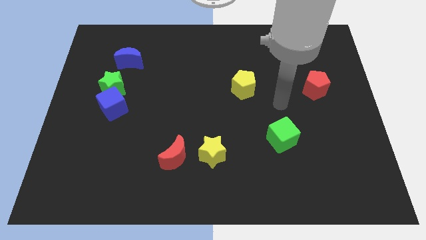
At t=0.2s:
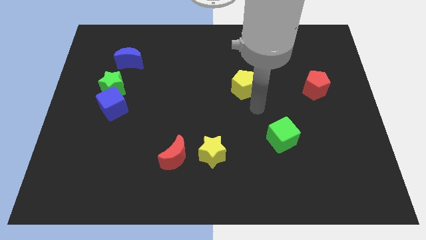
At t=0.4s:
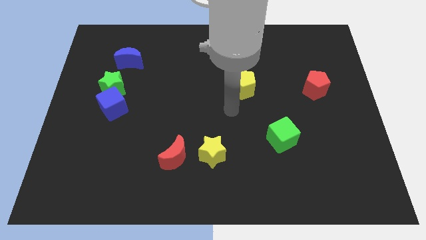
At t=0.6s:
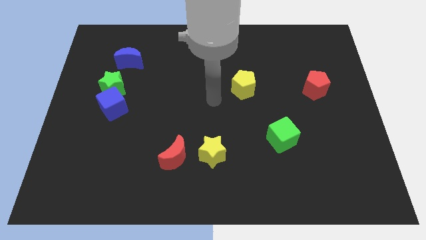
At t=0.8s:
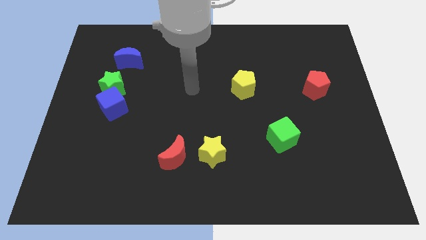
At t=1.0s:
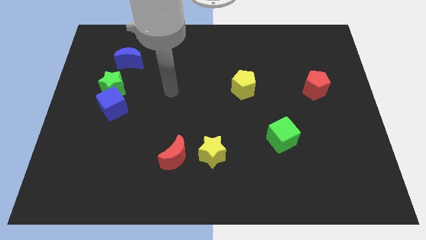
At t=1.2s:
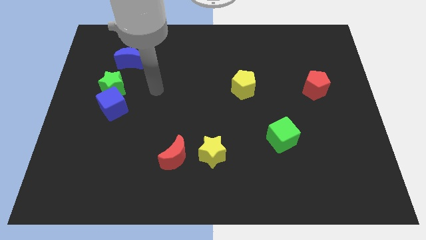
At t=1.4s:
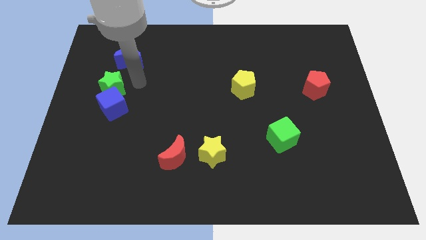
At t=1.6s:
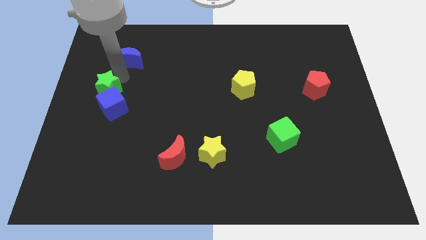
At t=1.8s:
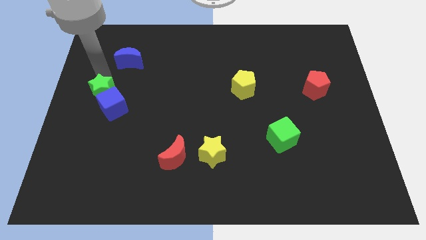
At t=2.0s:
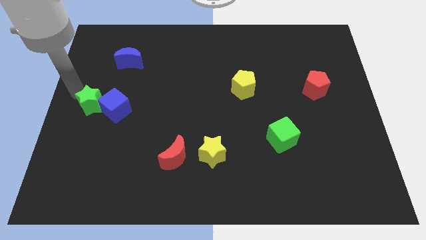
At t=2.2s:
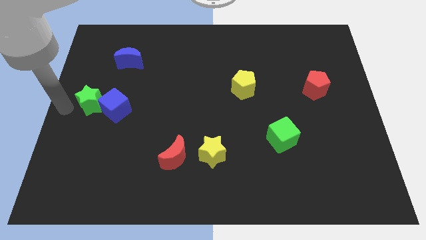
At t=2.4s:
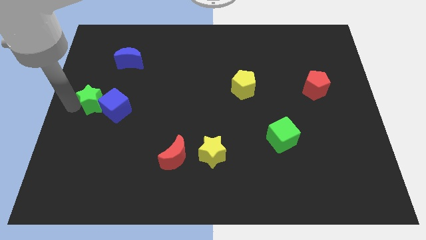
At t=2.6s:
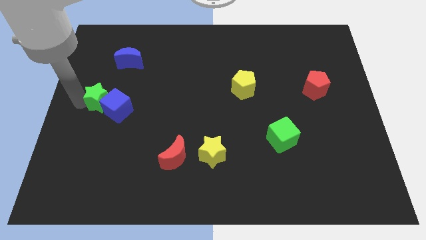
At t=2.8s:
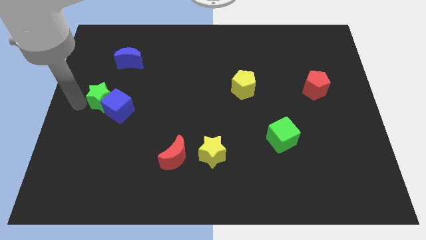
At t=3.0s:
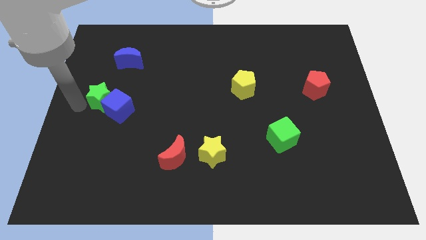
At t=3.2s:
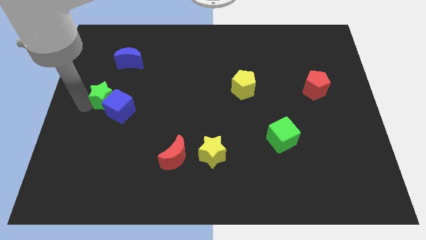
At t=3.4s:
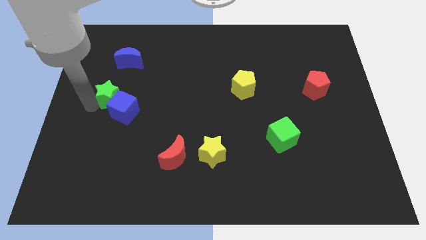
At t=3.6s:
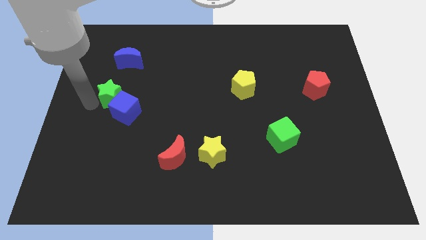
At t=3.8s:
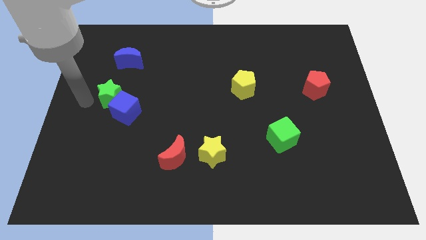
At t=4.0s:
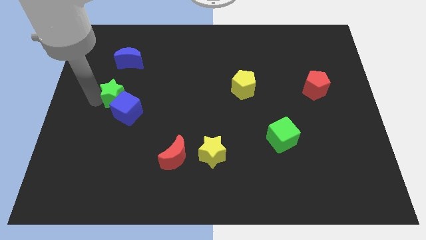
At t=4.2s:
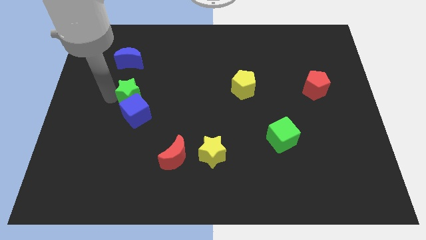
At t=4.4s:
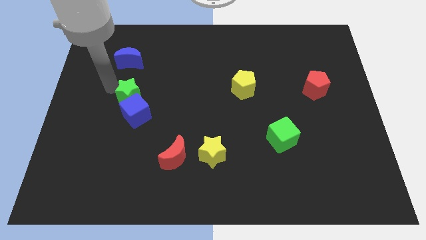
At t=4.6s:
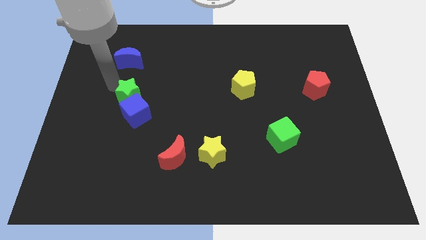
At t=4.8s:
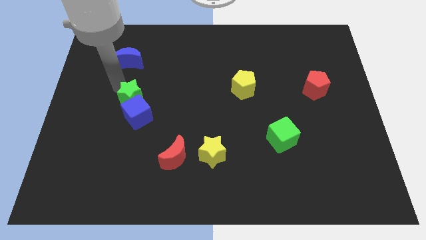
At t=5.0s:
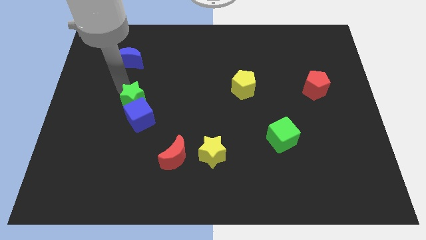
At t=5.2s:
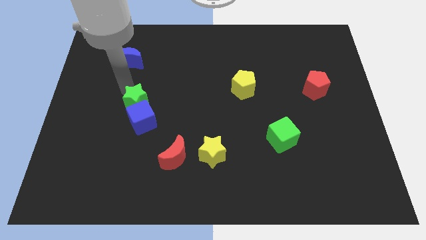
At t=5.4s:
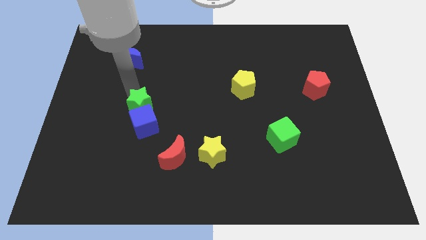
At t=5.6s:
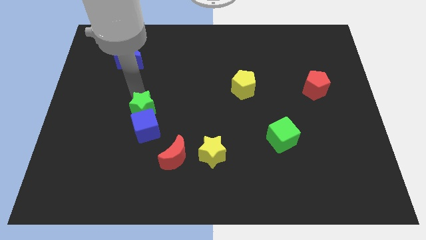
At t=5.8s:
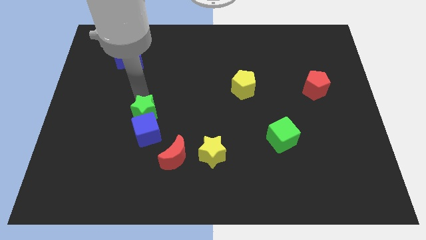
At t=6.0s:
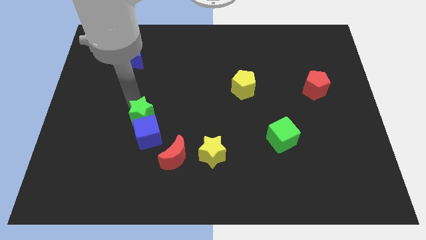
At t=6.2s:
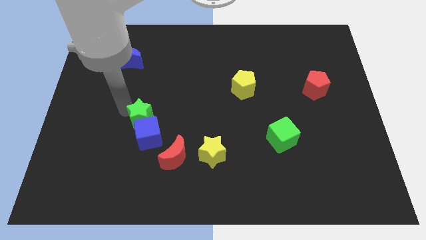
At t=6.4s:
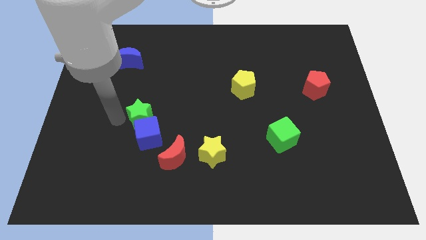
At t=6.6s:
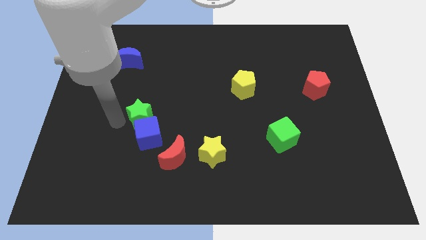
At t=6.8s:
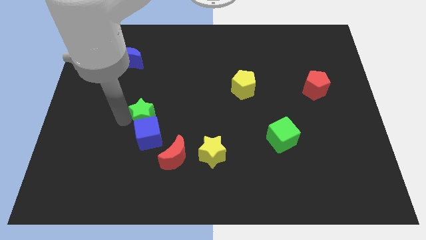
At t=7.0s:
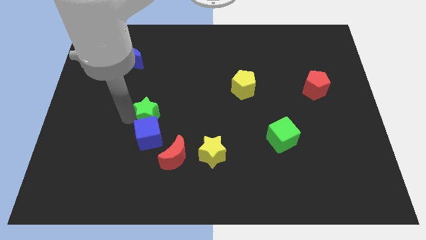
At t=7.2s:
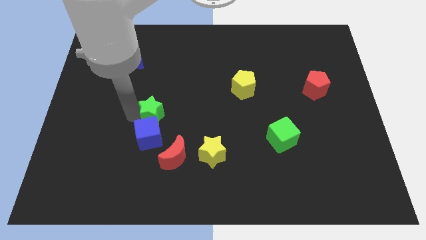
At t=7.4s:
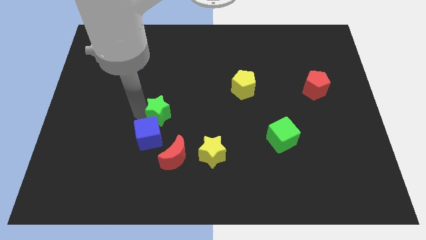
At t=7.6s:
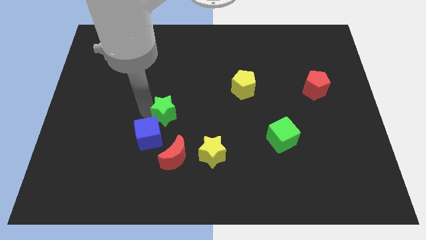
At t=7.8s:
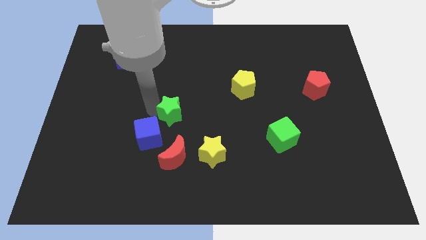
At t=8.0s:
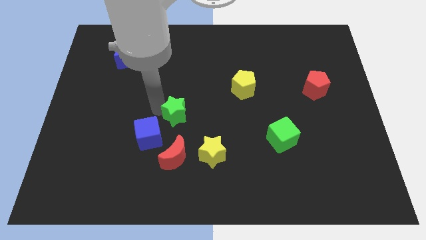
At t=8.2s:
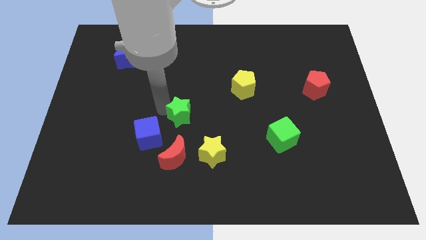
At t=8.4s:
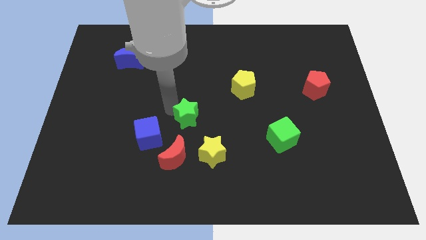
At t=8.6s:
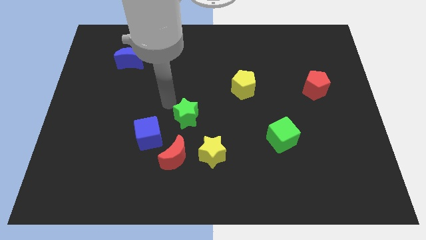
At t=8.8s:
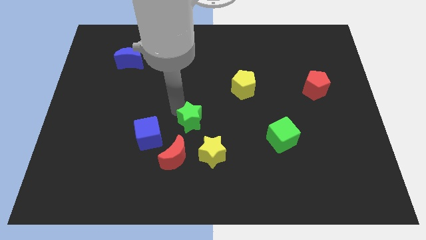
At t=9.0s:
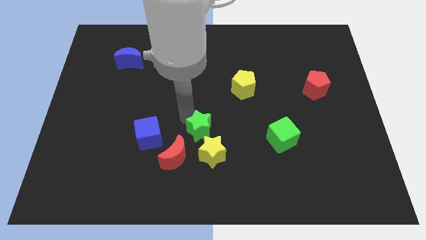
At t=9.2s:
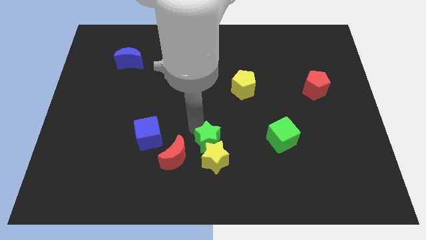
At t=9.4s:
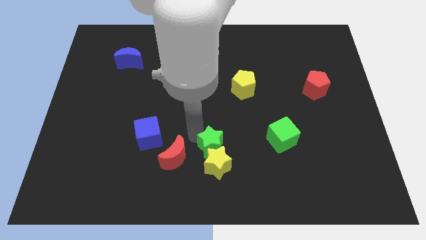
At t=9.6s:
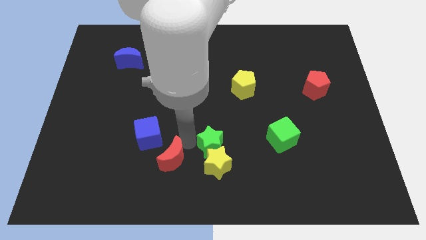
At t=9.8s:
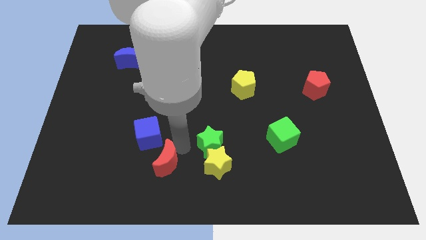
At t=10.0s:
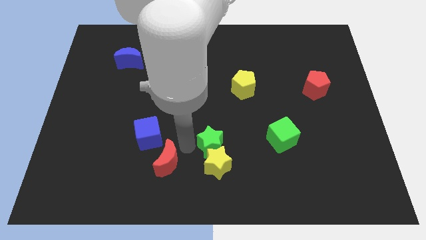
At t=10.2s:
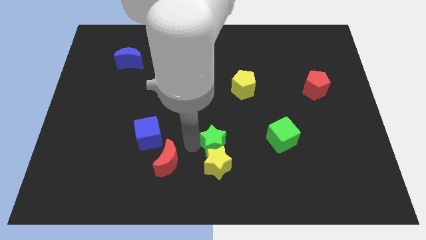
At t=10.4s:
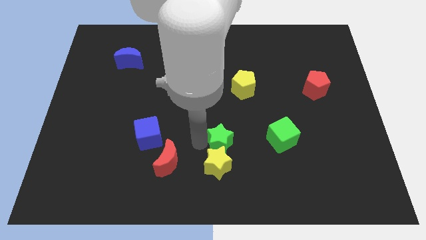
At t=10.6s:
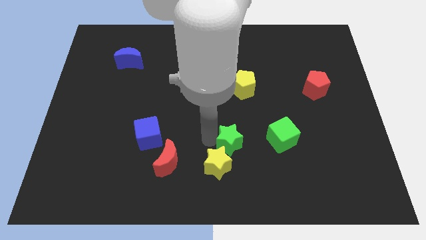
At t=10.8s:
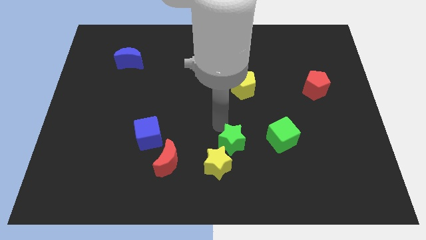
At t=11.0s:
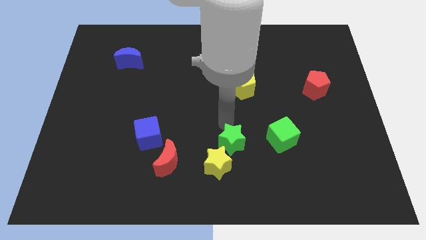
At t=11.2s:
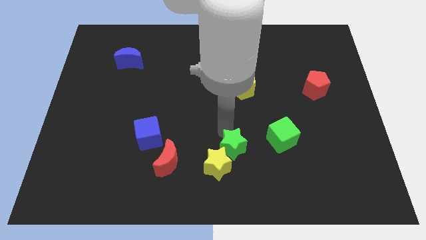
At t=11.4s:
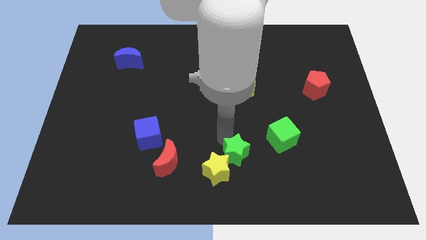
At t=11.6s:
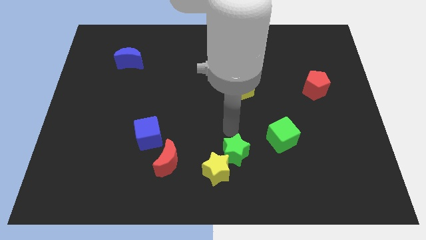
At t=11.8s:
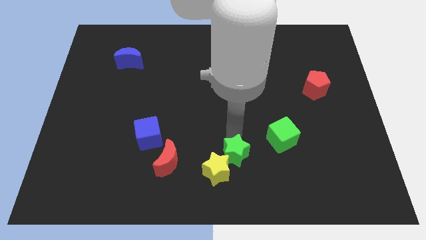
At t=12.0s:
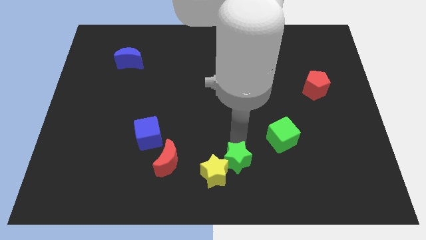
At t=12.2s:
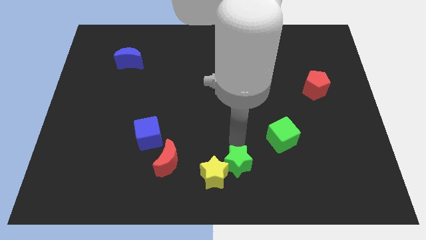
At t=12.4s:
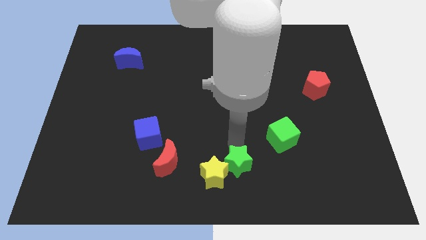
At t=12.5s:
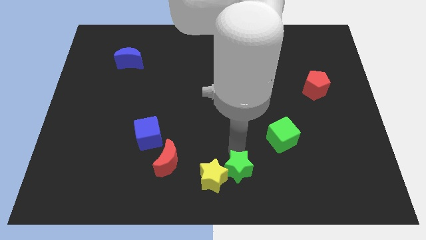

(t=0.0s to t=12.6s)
slide the green star to the bottom right of the yellow star

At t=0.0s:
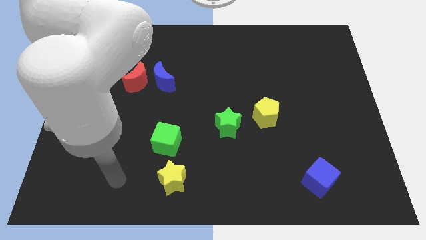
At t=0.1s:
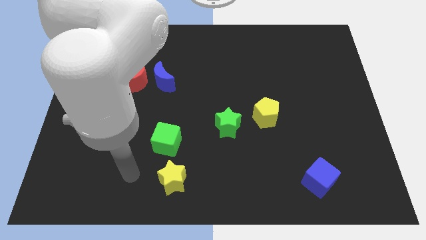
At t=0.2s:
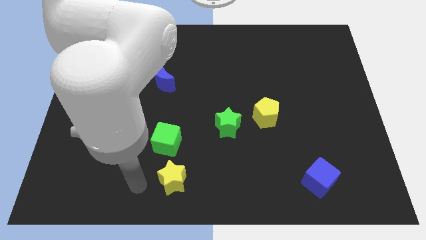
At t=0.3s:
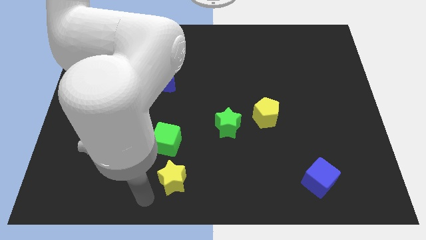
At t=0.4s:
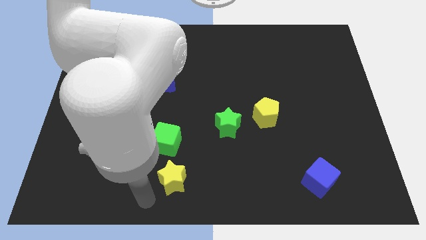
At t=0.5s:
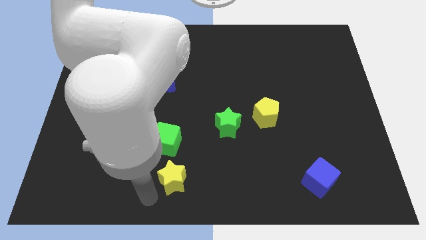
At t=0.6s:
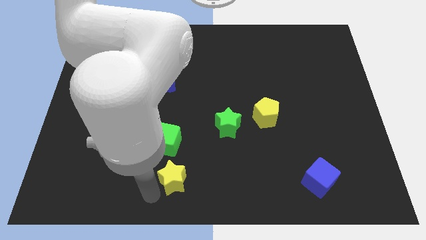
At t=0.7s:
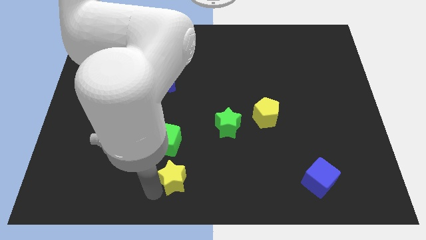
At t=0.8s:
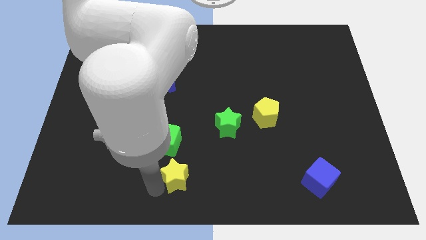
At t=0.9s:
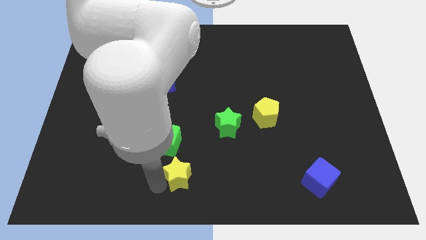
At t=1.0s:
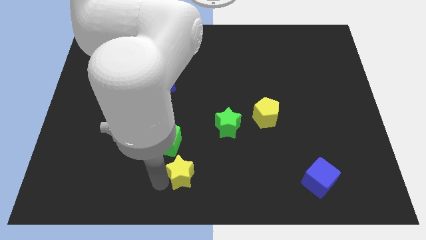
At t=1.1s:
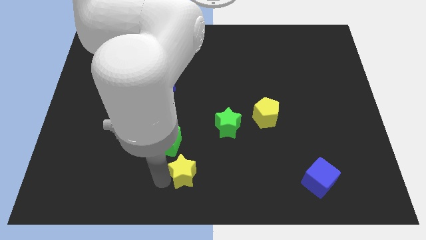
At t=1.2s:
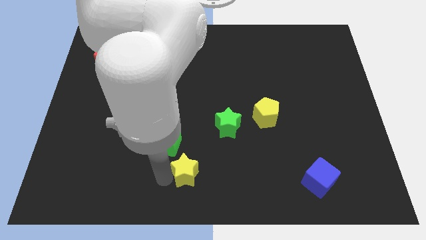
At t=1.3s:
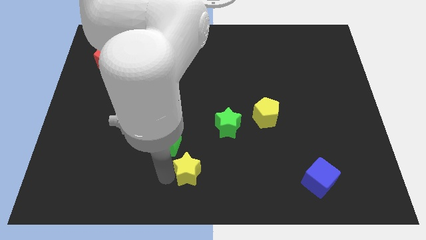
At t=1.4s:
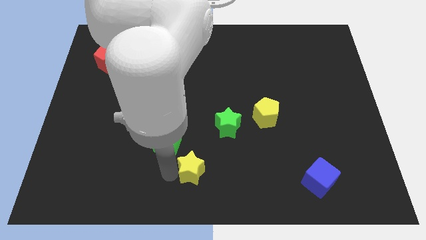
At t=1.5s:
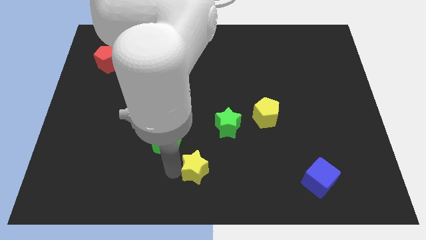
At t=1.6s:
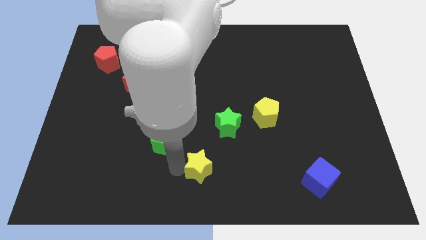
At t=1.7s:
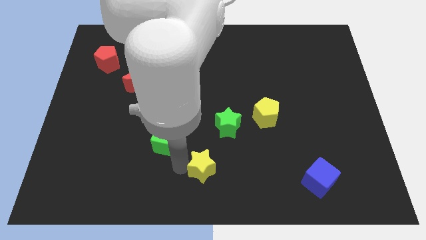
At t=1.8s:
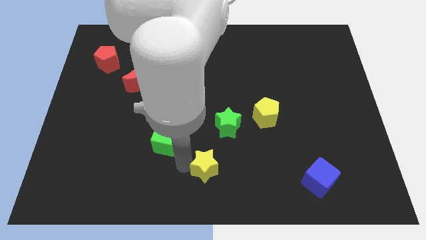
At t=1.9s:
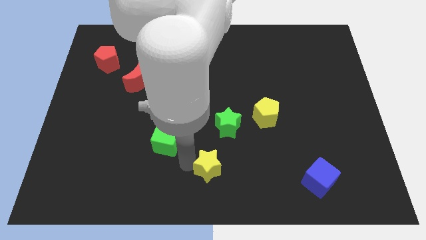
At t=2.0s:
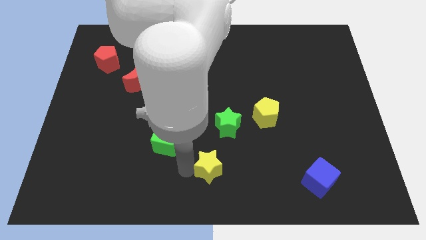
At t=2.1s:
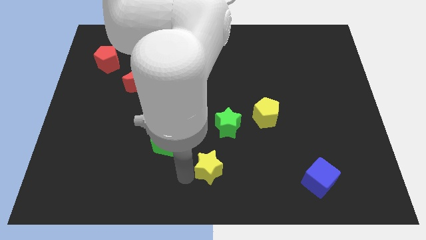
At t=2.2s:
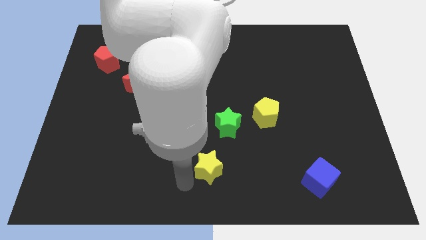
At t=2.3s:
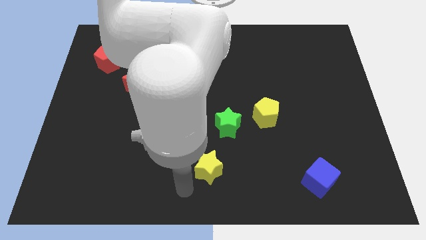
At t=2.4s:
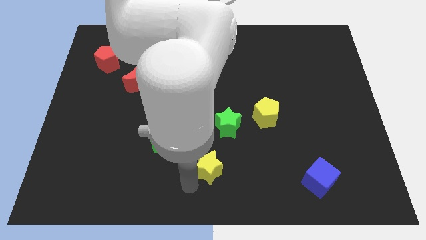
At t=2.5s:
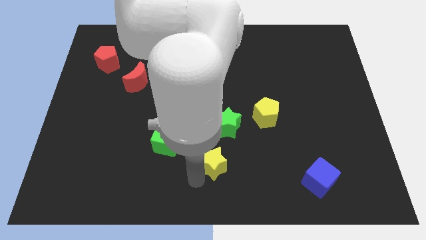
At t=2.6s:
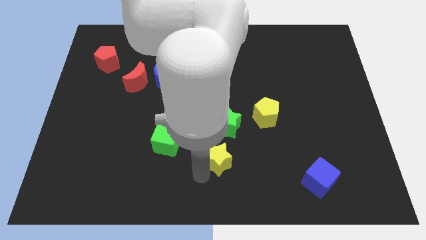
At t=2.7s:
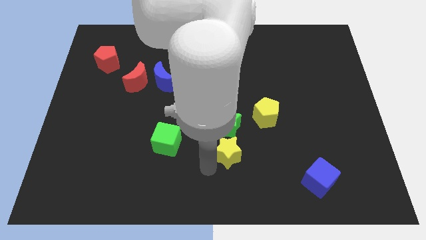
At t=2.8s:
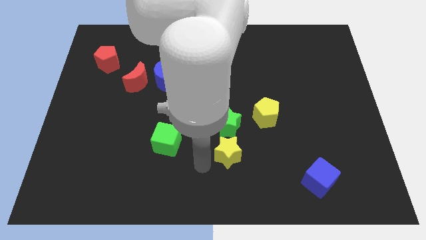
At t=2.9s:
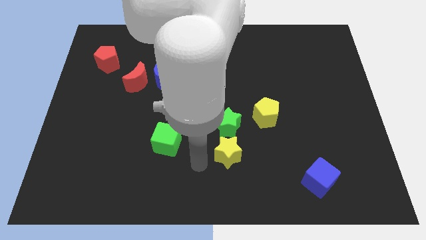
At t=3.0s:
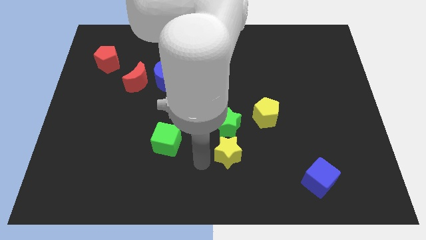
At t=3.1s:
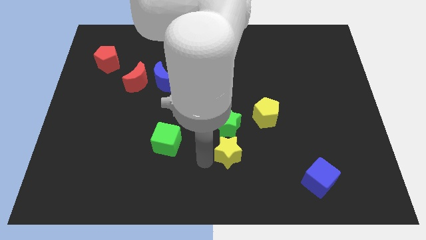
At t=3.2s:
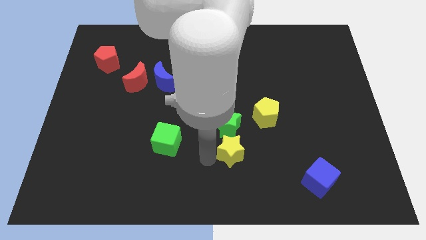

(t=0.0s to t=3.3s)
move the yellow star to the bottom right of the green star
